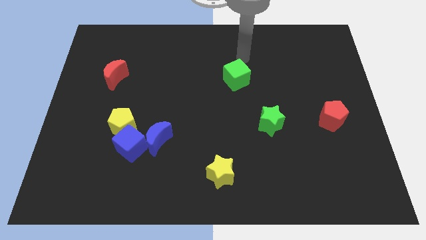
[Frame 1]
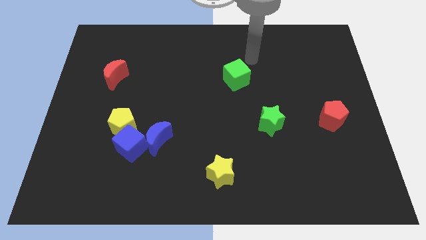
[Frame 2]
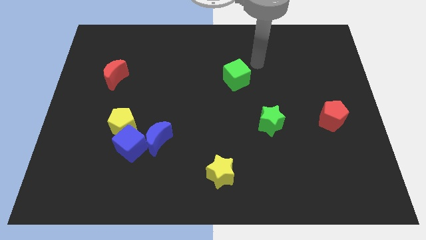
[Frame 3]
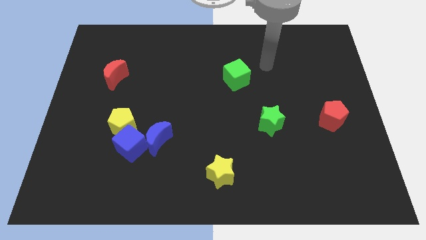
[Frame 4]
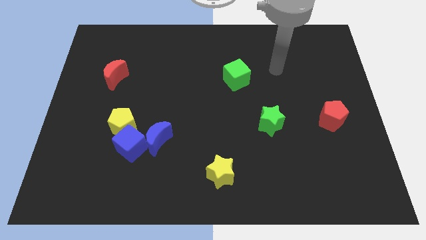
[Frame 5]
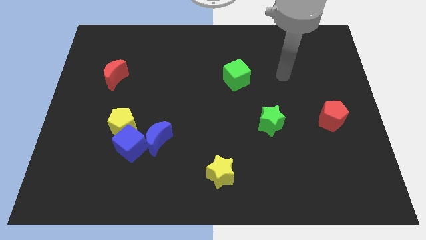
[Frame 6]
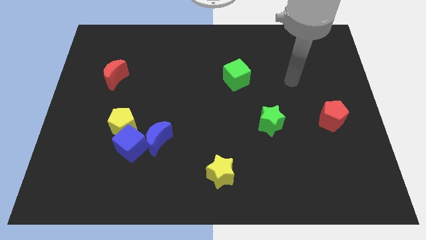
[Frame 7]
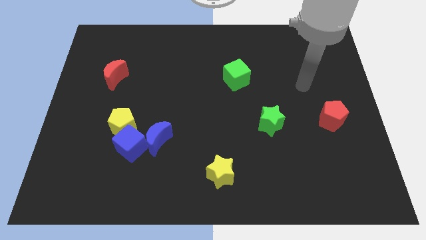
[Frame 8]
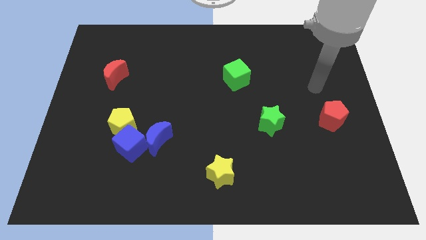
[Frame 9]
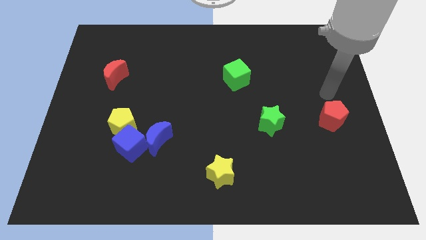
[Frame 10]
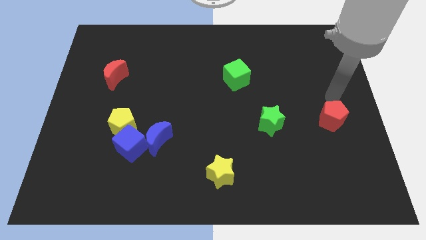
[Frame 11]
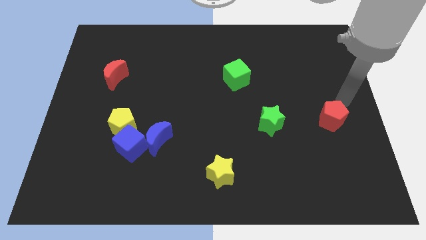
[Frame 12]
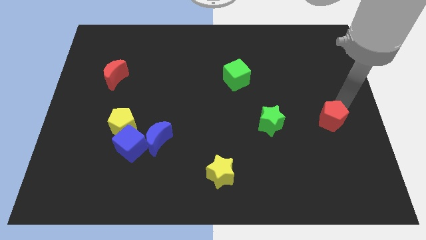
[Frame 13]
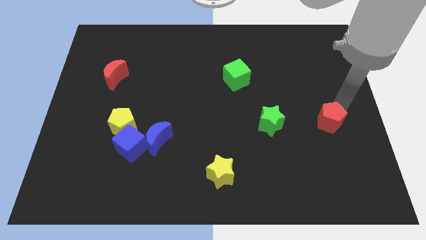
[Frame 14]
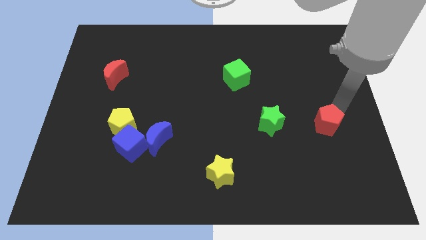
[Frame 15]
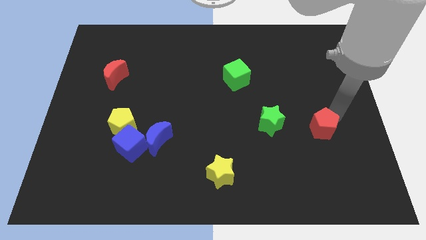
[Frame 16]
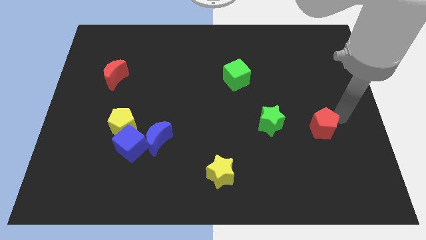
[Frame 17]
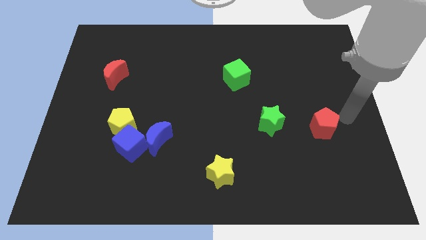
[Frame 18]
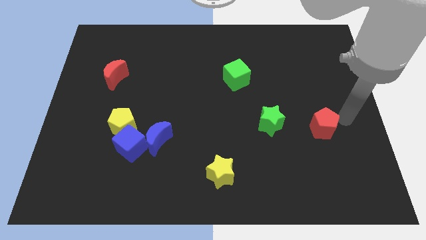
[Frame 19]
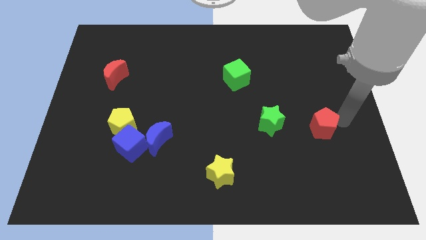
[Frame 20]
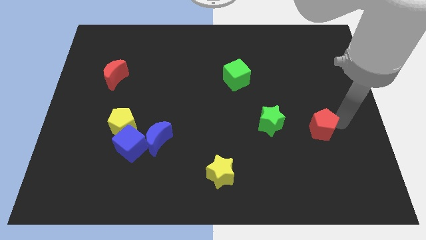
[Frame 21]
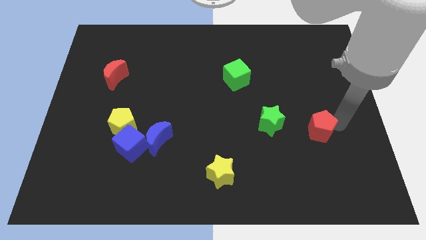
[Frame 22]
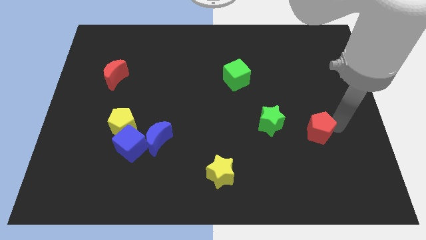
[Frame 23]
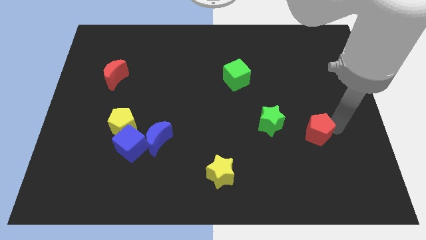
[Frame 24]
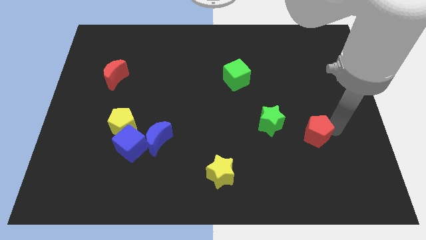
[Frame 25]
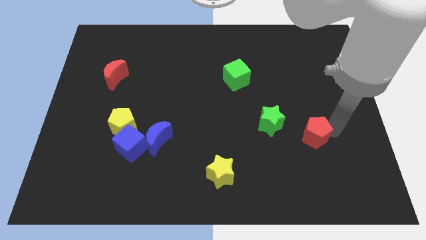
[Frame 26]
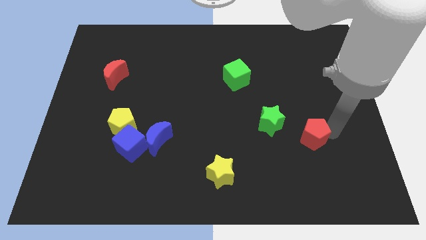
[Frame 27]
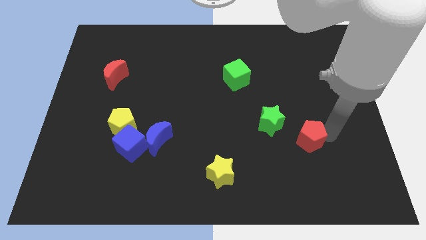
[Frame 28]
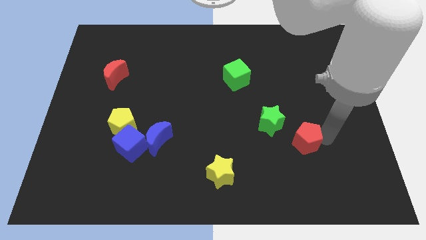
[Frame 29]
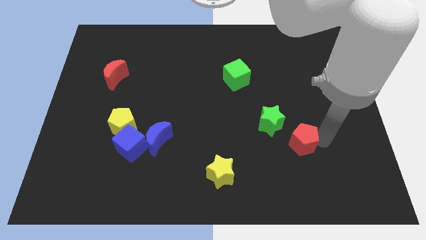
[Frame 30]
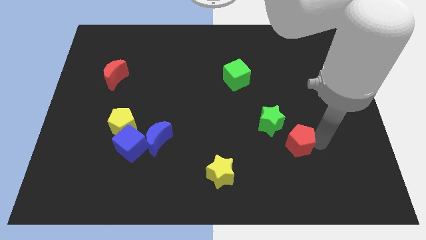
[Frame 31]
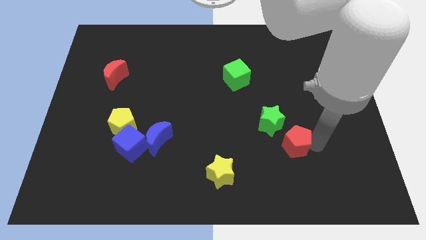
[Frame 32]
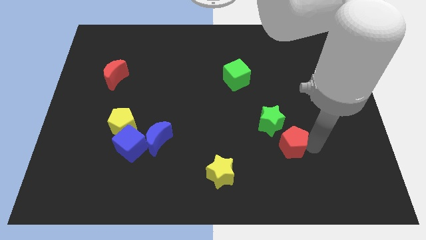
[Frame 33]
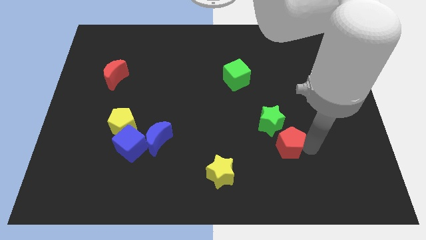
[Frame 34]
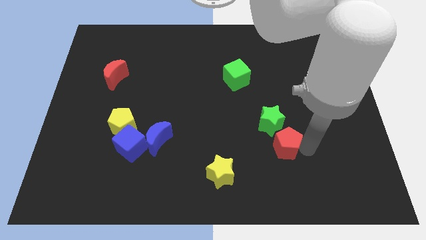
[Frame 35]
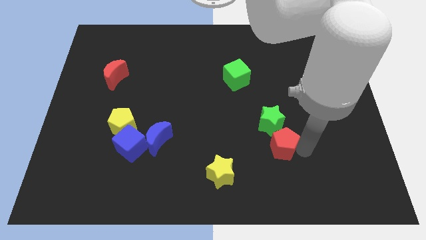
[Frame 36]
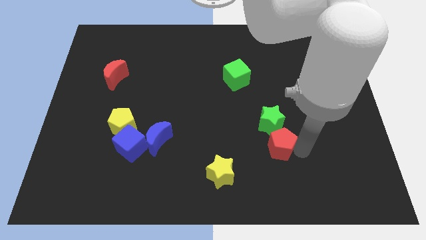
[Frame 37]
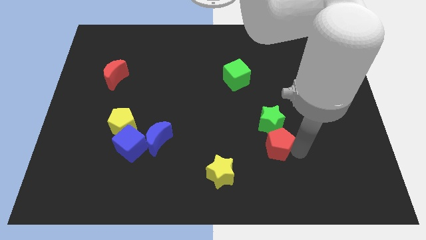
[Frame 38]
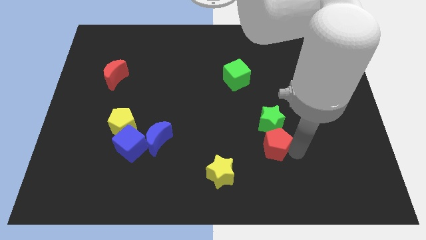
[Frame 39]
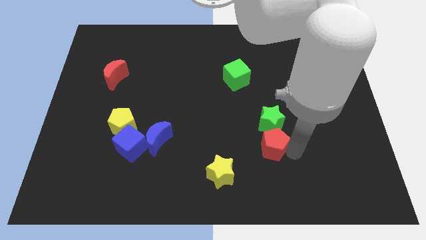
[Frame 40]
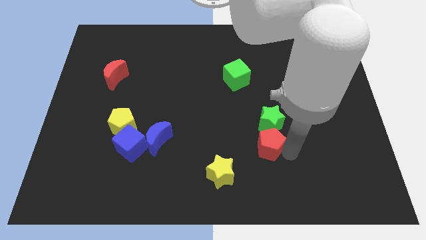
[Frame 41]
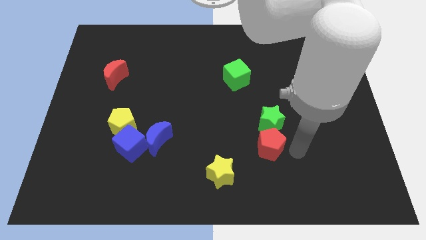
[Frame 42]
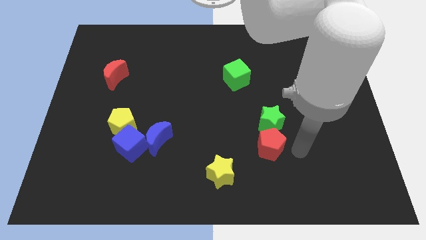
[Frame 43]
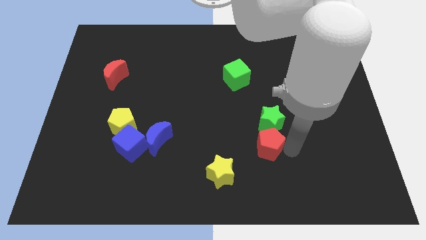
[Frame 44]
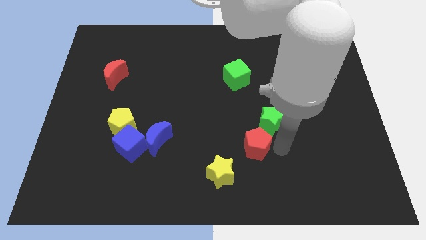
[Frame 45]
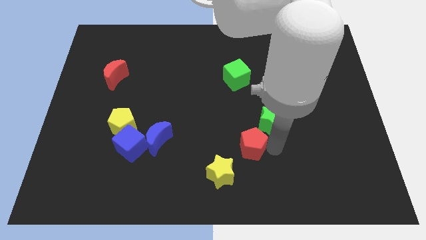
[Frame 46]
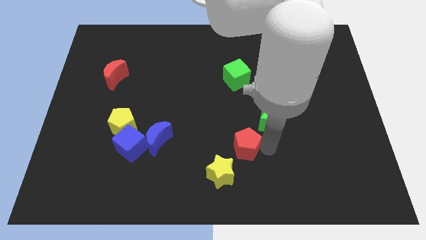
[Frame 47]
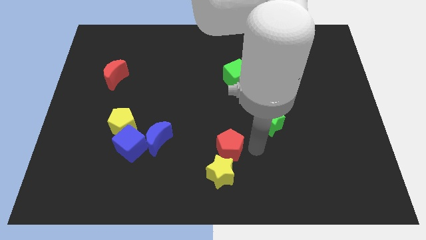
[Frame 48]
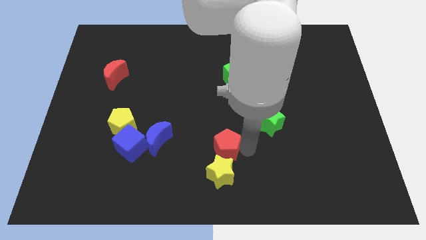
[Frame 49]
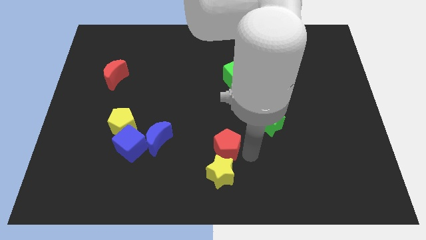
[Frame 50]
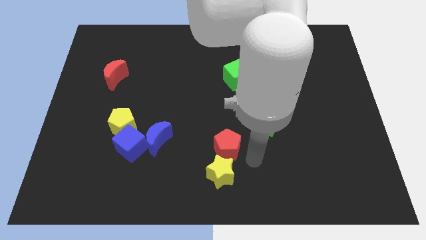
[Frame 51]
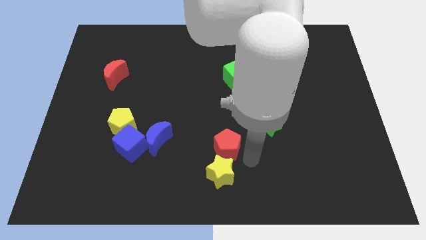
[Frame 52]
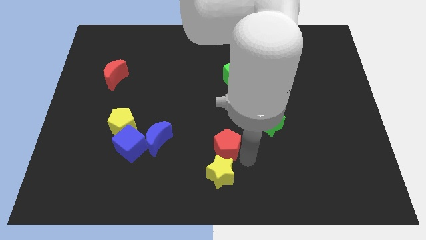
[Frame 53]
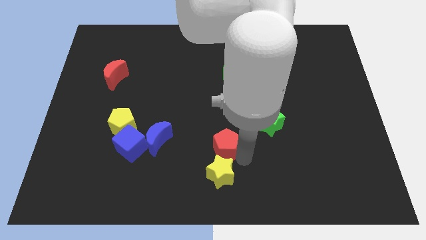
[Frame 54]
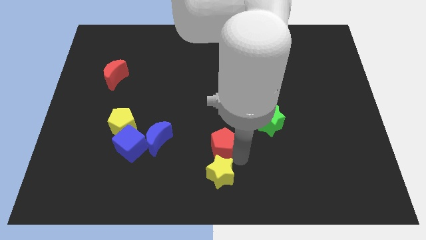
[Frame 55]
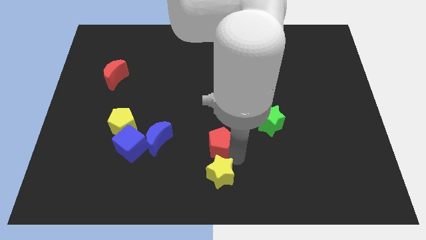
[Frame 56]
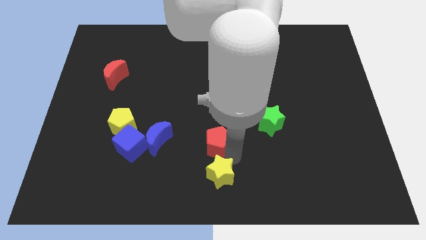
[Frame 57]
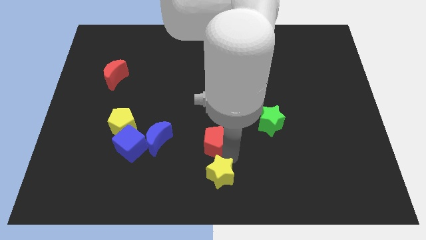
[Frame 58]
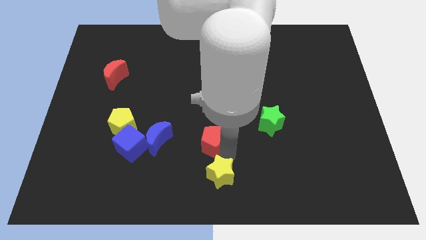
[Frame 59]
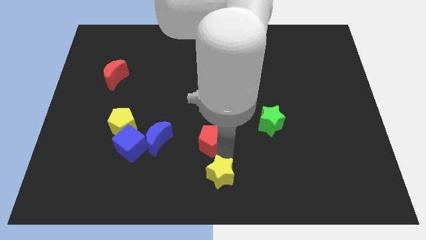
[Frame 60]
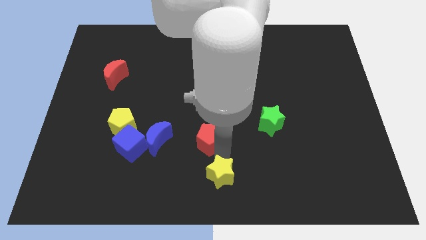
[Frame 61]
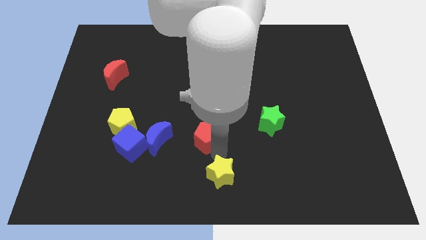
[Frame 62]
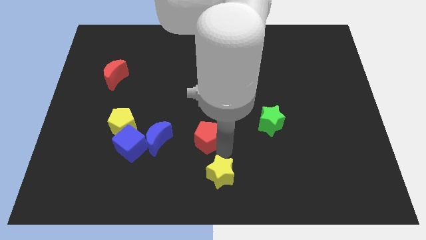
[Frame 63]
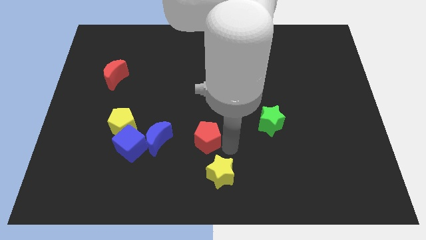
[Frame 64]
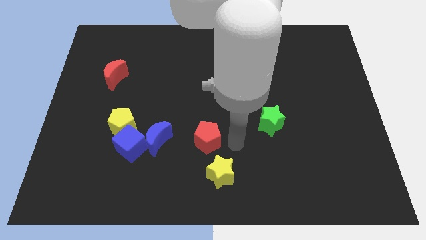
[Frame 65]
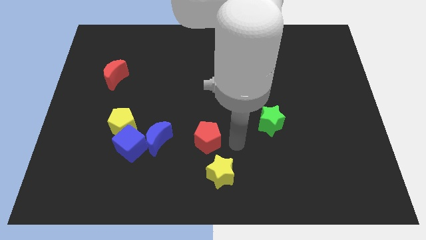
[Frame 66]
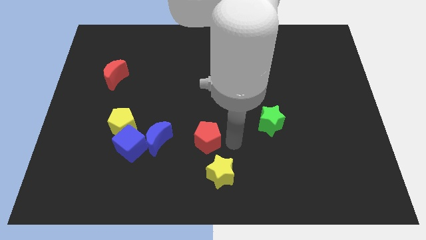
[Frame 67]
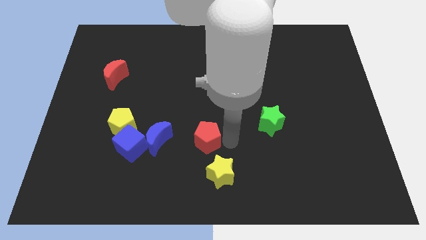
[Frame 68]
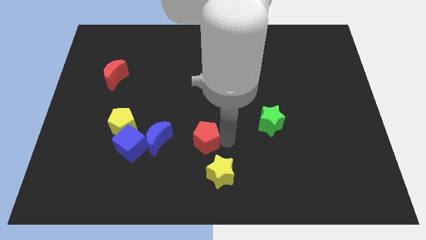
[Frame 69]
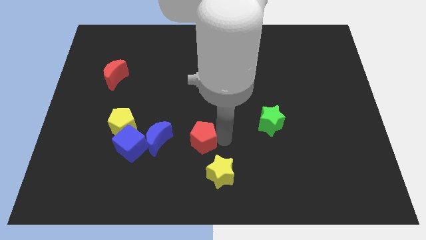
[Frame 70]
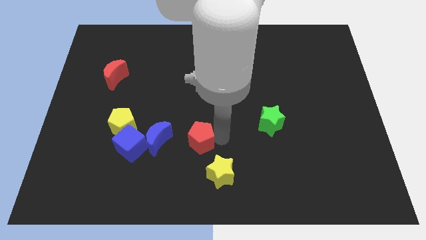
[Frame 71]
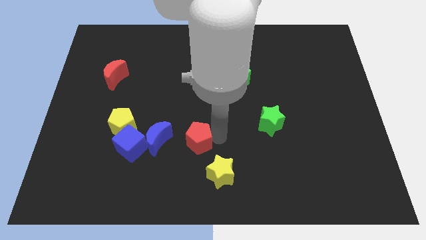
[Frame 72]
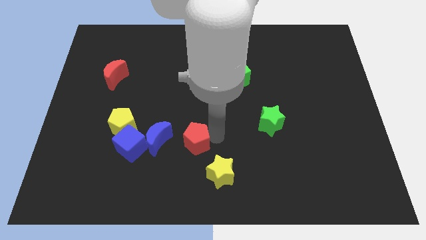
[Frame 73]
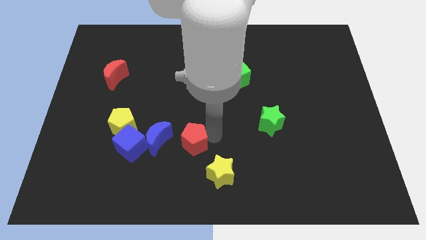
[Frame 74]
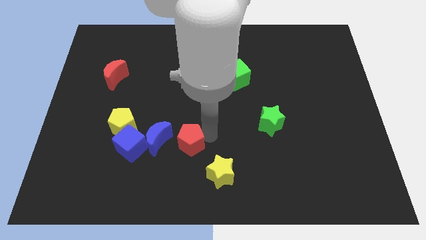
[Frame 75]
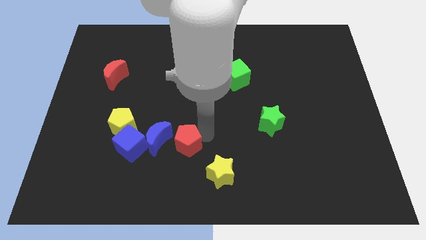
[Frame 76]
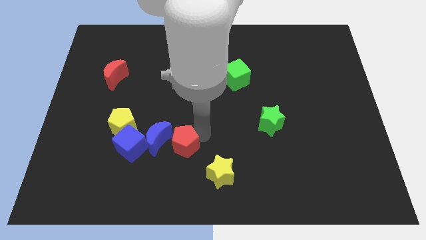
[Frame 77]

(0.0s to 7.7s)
move the red pentagon to the blue moon

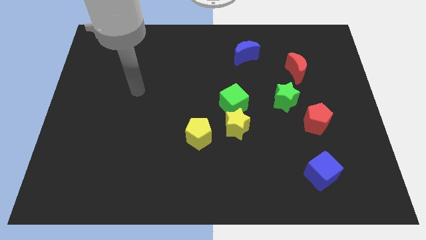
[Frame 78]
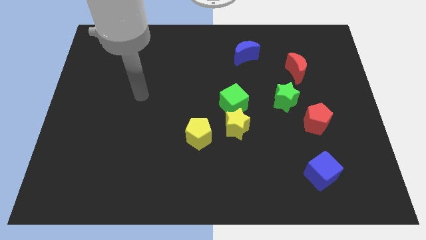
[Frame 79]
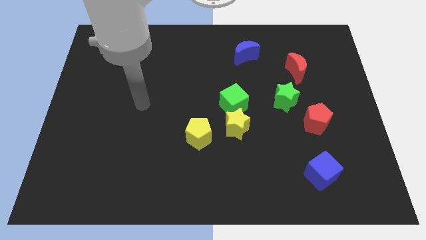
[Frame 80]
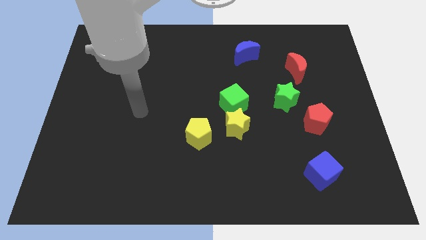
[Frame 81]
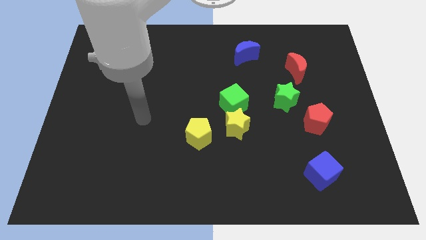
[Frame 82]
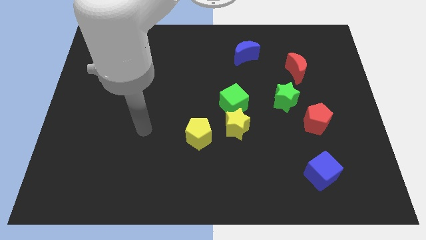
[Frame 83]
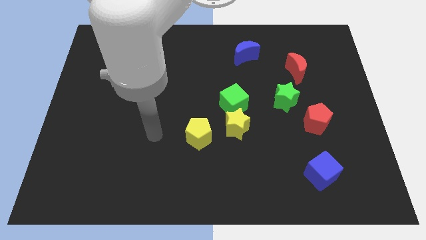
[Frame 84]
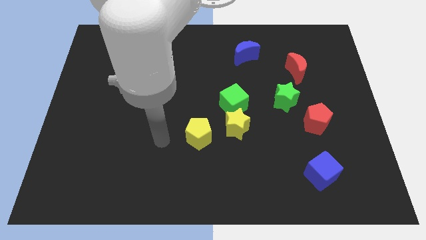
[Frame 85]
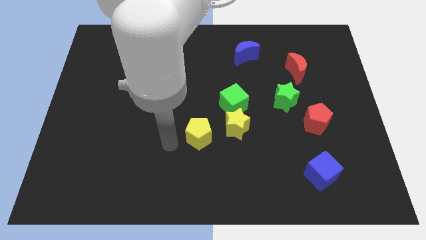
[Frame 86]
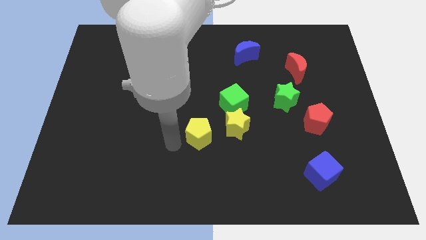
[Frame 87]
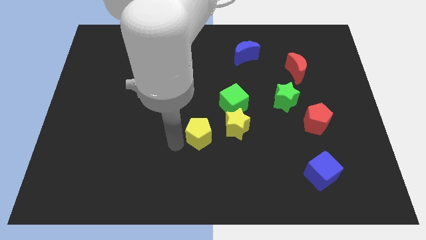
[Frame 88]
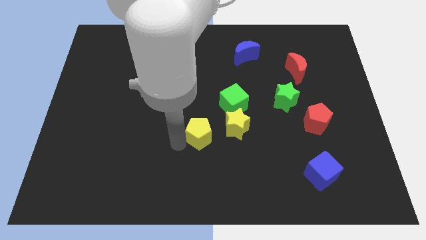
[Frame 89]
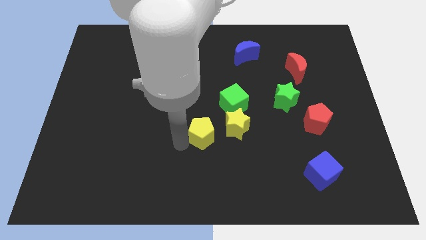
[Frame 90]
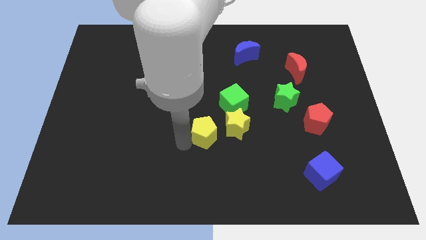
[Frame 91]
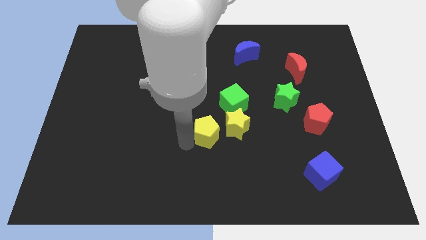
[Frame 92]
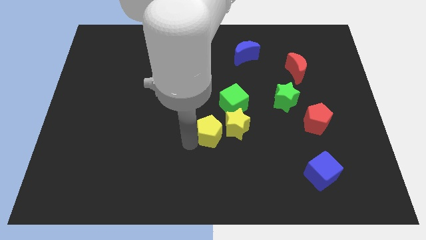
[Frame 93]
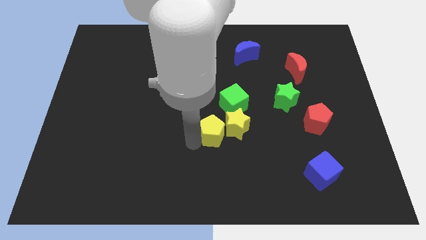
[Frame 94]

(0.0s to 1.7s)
move the yellow pentagon to the yellow star
